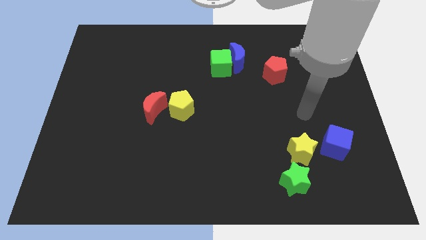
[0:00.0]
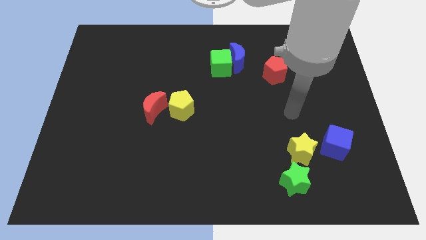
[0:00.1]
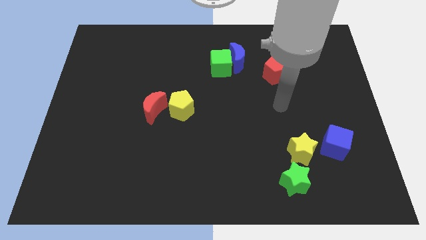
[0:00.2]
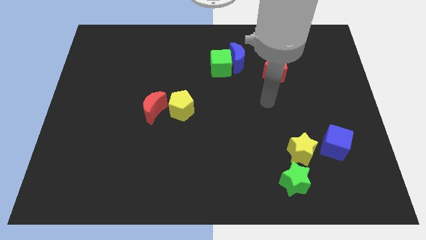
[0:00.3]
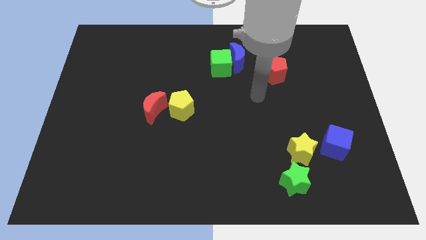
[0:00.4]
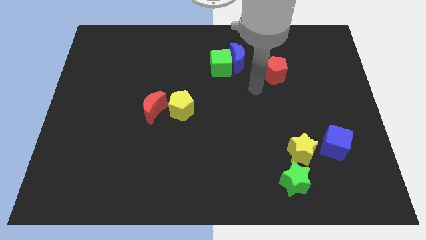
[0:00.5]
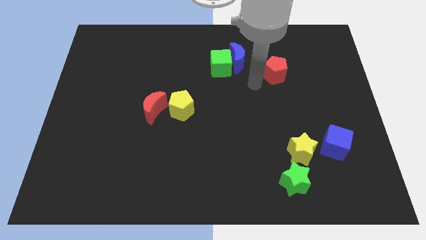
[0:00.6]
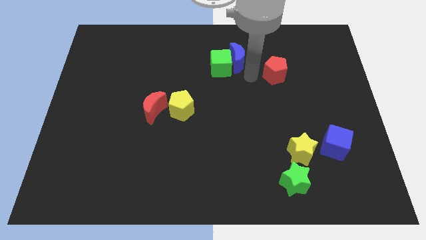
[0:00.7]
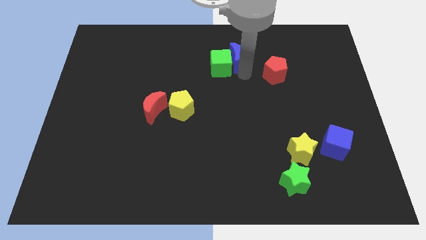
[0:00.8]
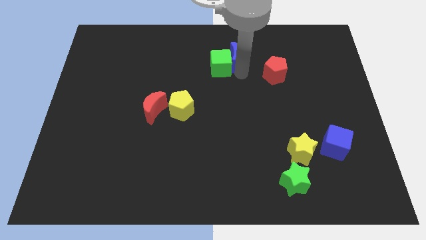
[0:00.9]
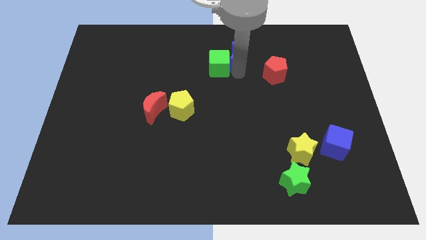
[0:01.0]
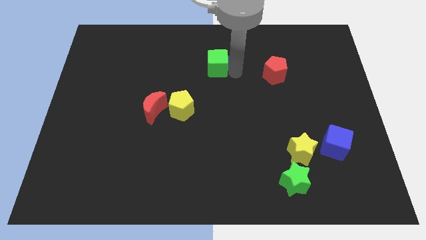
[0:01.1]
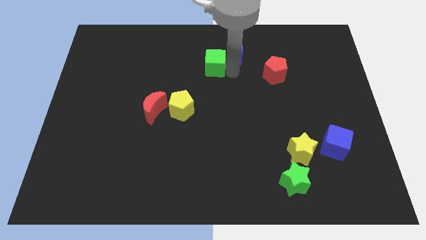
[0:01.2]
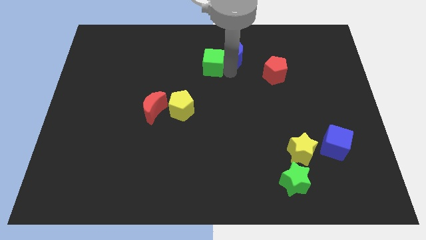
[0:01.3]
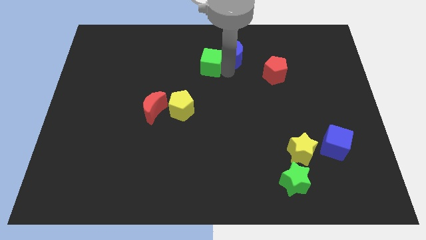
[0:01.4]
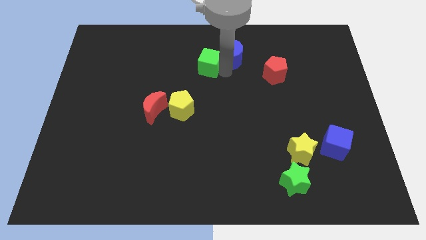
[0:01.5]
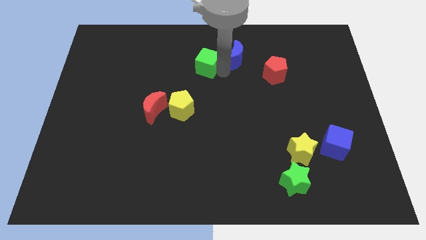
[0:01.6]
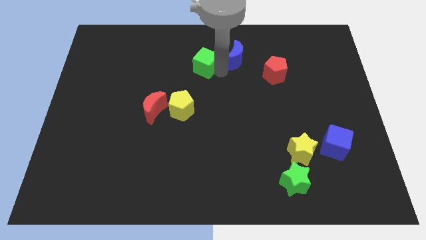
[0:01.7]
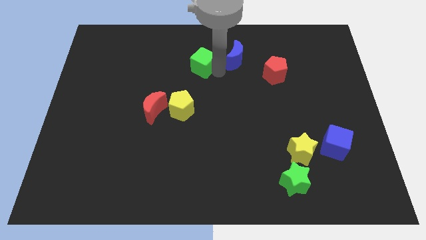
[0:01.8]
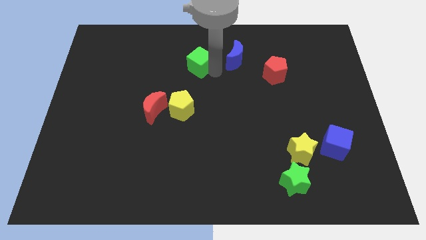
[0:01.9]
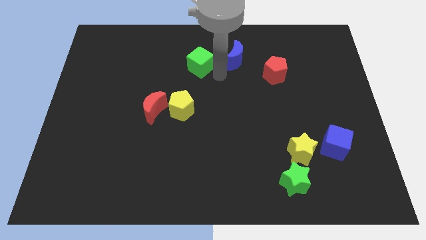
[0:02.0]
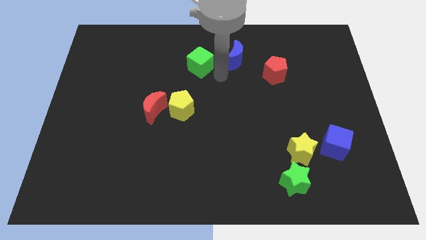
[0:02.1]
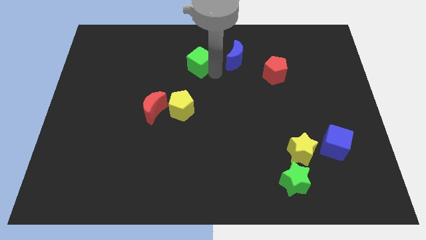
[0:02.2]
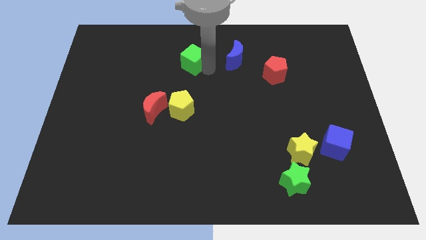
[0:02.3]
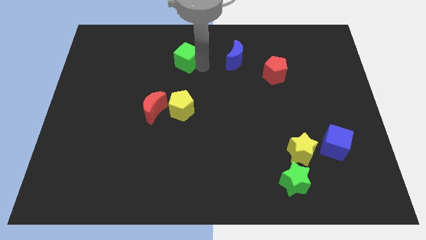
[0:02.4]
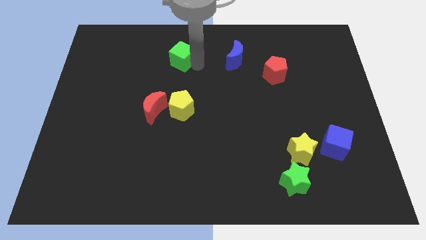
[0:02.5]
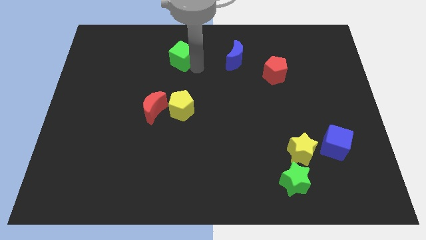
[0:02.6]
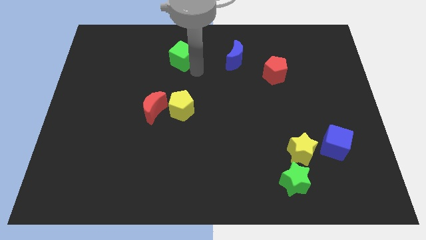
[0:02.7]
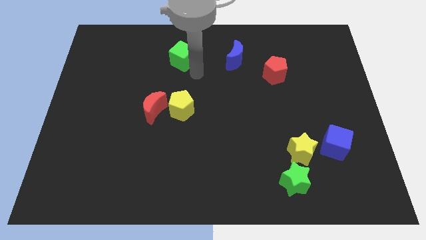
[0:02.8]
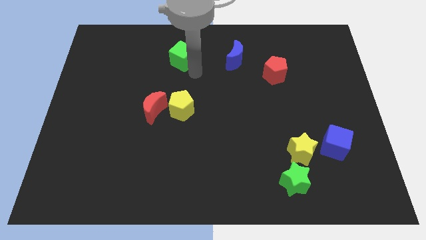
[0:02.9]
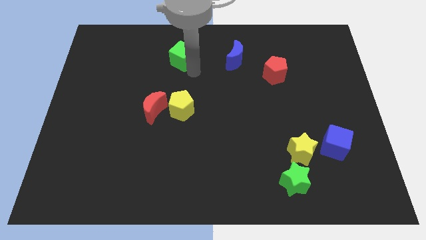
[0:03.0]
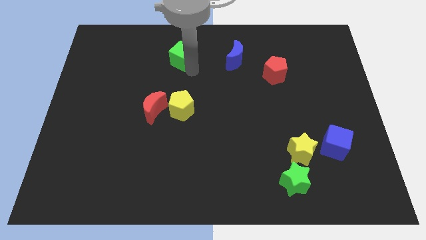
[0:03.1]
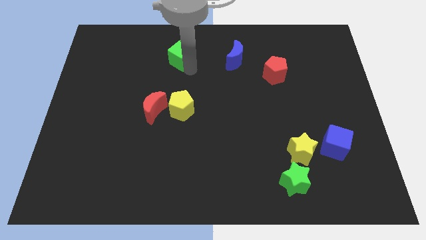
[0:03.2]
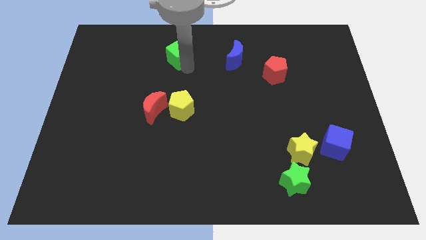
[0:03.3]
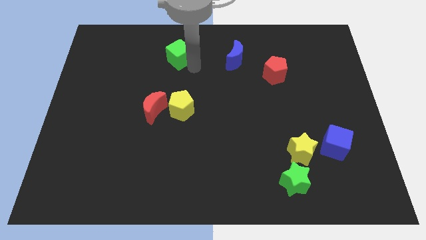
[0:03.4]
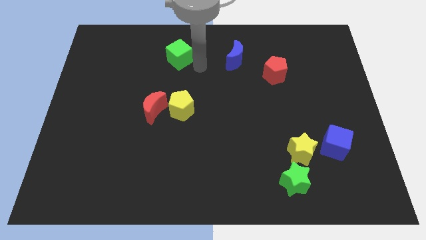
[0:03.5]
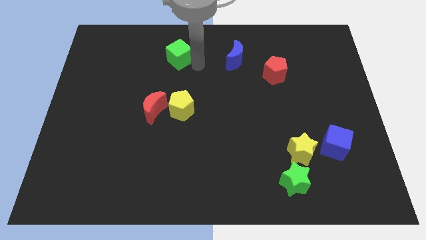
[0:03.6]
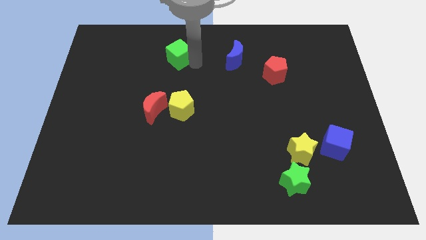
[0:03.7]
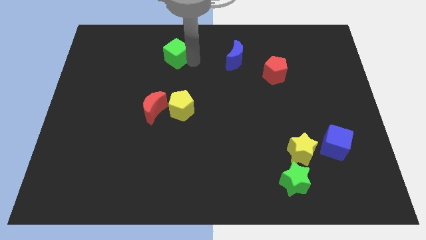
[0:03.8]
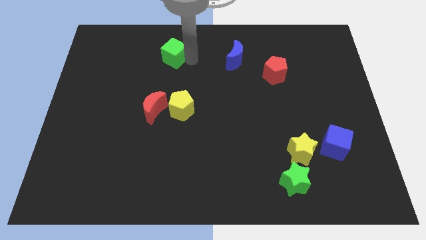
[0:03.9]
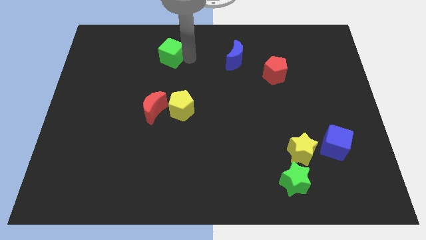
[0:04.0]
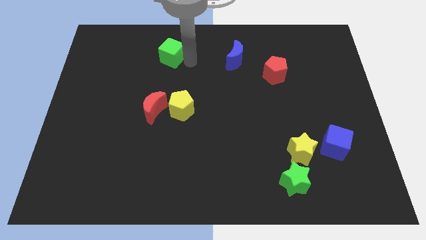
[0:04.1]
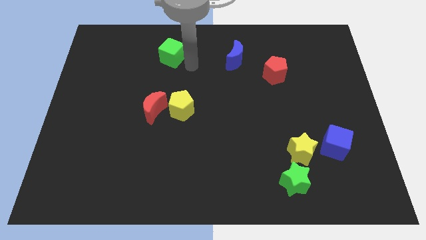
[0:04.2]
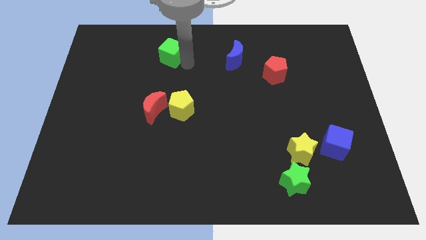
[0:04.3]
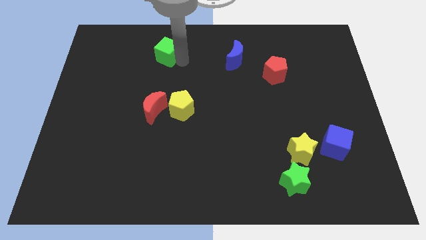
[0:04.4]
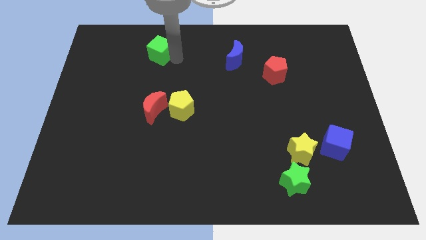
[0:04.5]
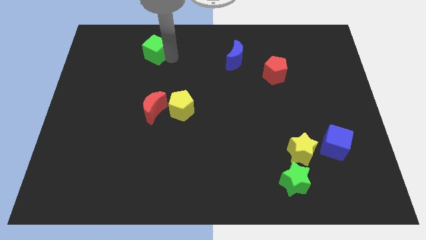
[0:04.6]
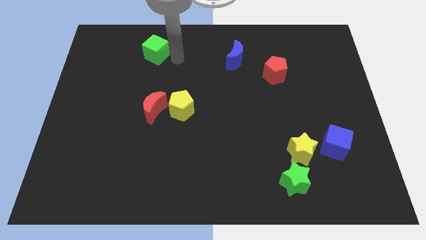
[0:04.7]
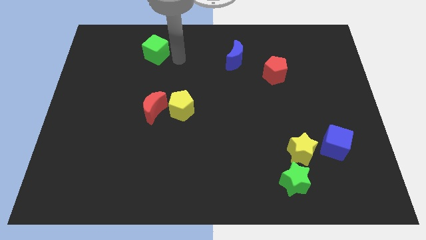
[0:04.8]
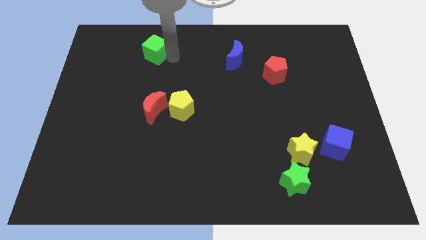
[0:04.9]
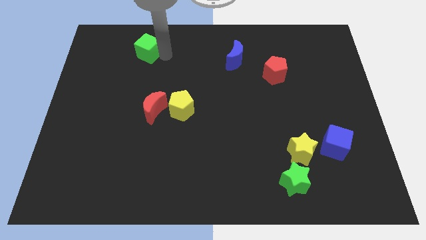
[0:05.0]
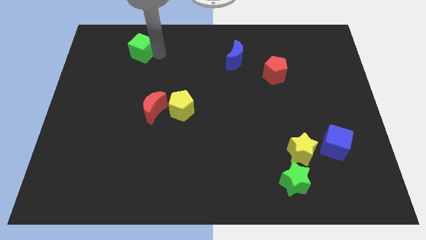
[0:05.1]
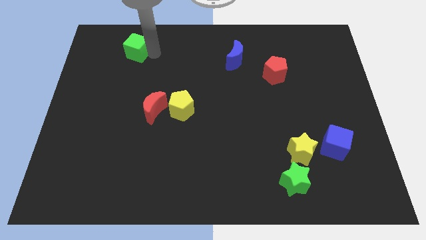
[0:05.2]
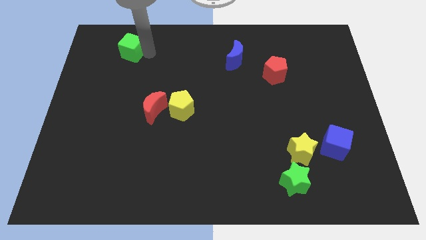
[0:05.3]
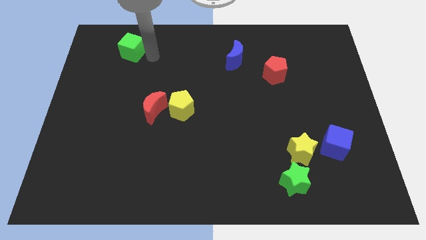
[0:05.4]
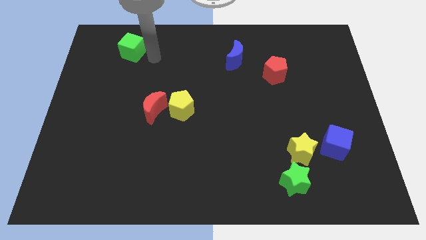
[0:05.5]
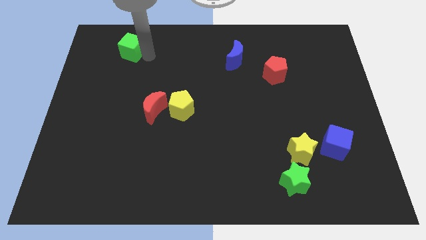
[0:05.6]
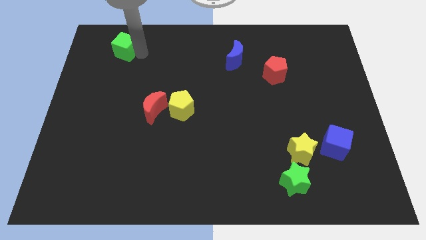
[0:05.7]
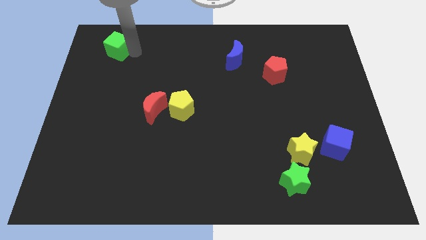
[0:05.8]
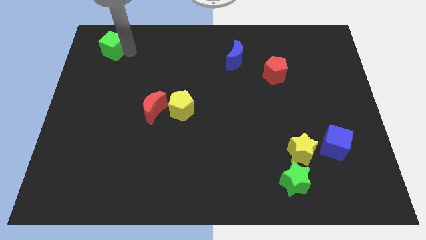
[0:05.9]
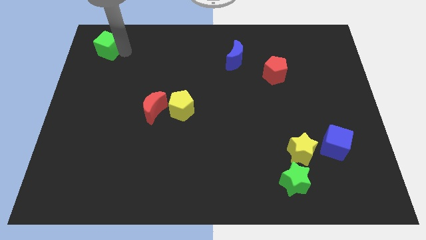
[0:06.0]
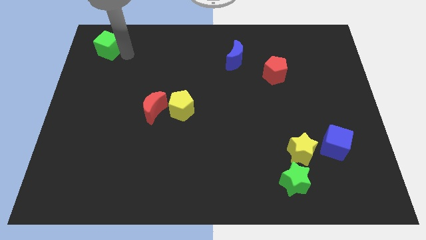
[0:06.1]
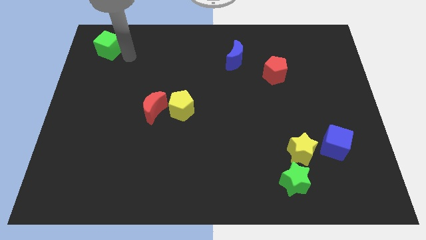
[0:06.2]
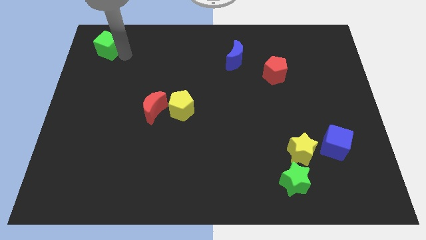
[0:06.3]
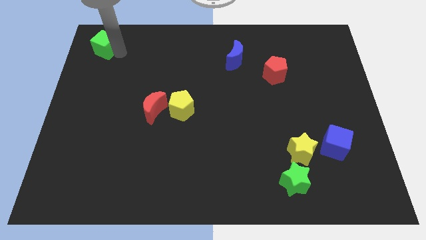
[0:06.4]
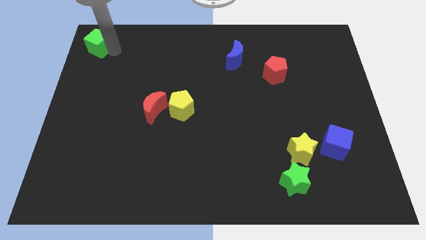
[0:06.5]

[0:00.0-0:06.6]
slide the green cube to the top left corner
